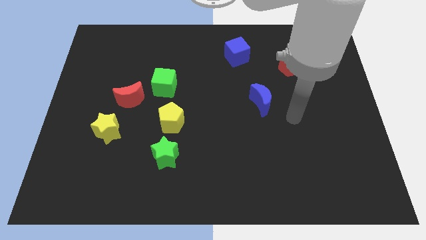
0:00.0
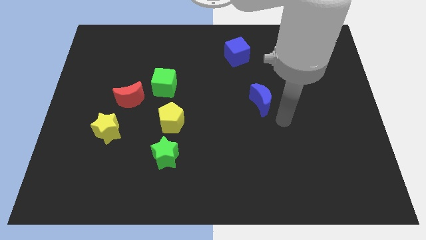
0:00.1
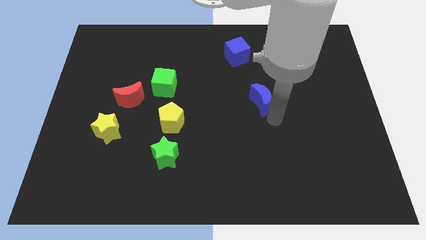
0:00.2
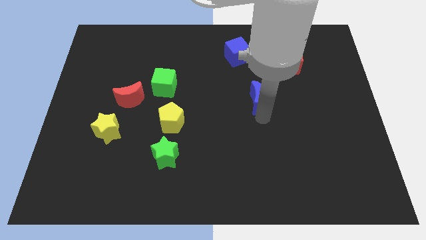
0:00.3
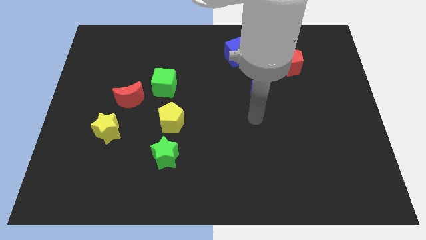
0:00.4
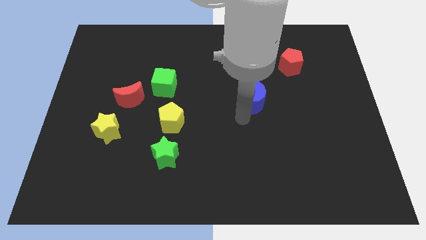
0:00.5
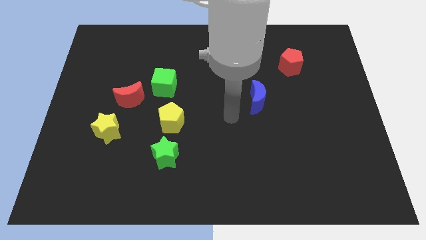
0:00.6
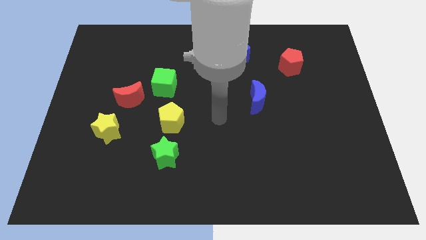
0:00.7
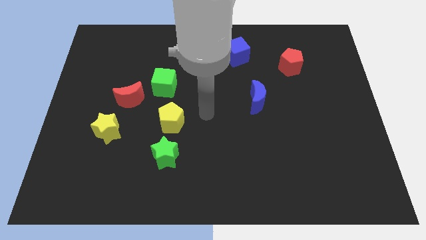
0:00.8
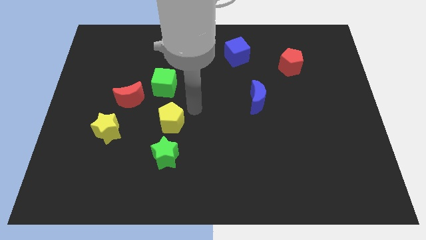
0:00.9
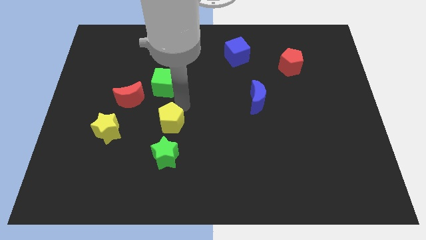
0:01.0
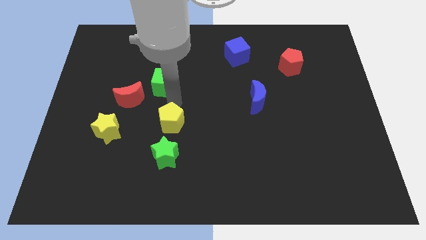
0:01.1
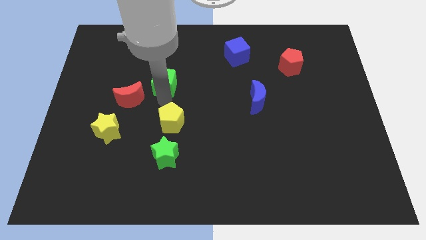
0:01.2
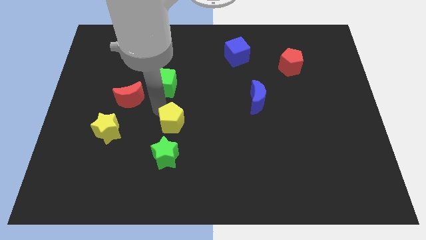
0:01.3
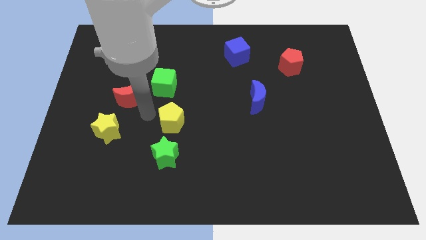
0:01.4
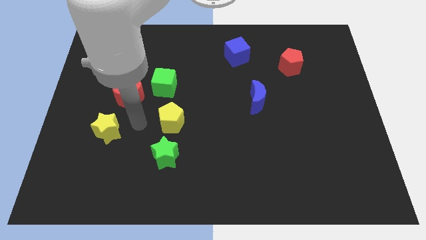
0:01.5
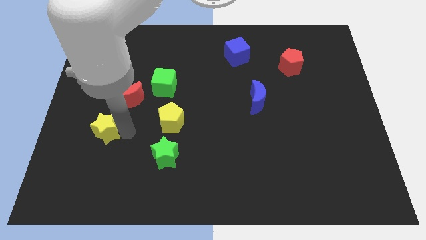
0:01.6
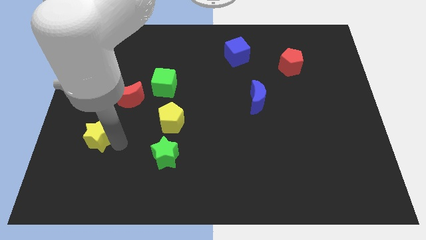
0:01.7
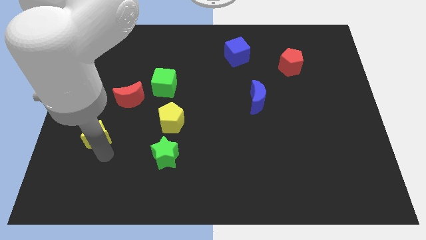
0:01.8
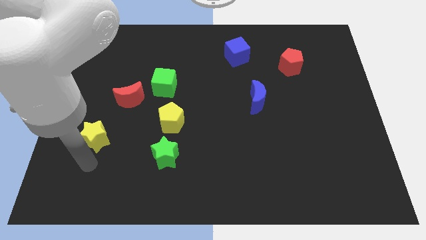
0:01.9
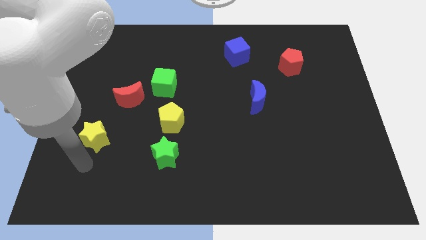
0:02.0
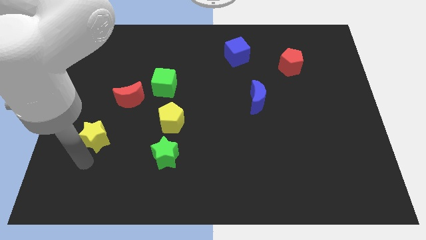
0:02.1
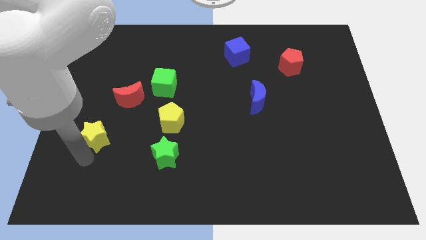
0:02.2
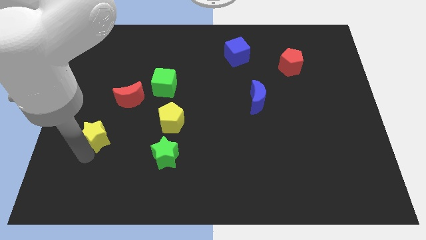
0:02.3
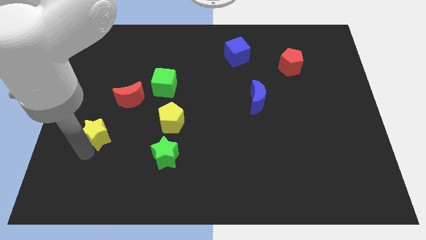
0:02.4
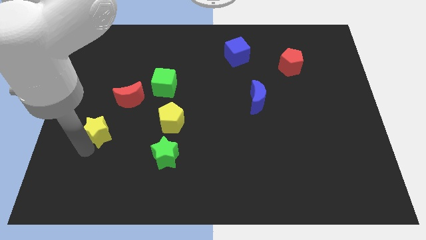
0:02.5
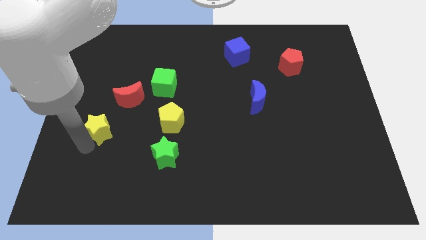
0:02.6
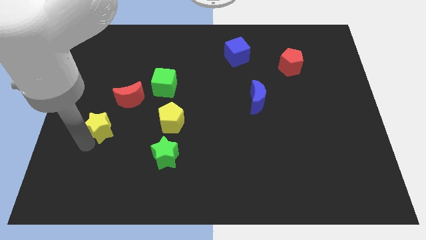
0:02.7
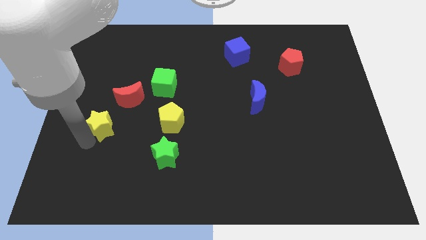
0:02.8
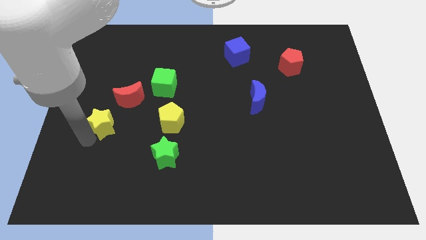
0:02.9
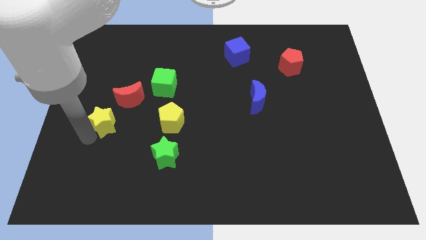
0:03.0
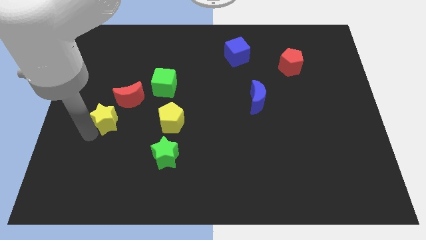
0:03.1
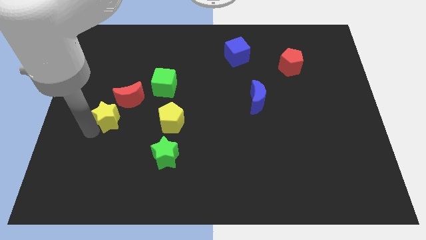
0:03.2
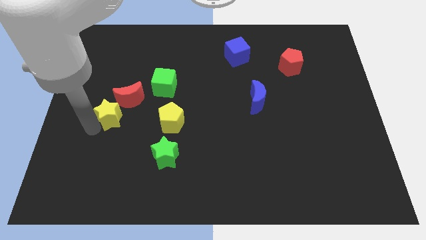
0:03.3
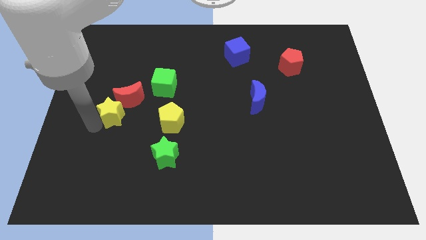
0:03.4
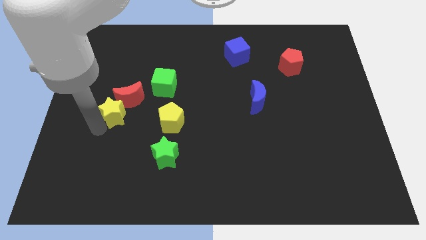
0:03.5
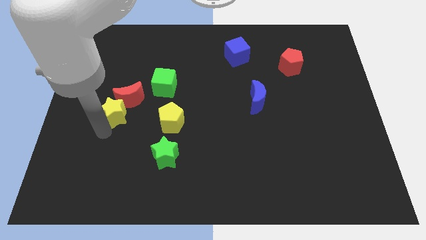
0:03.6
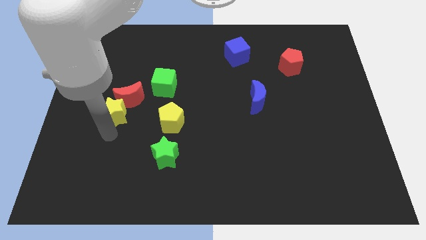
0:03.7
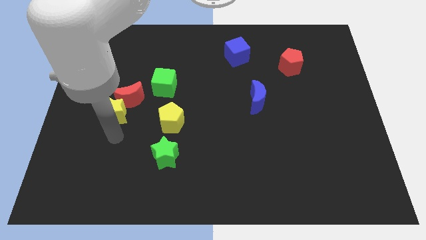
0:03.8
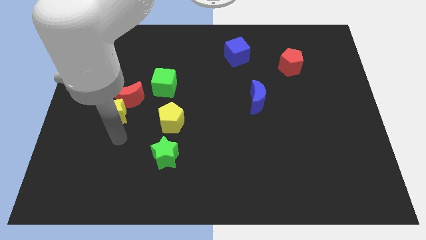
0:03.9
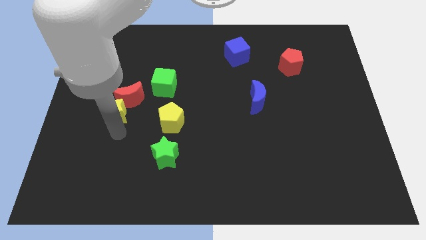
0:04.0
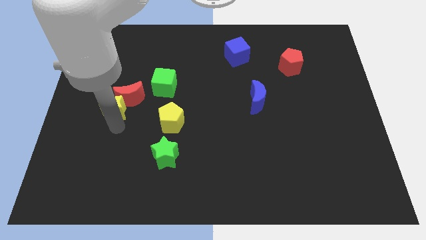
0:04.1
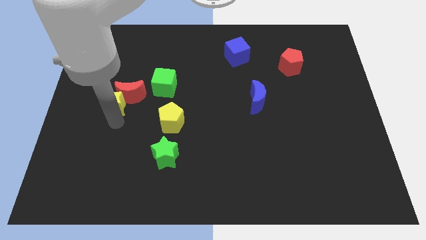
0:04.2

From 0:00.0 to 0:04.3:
push the yellow star a bit upwards

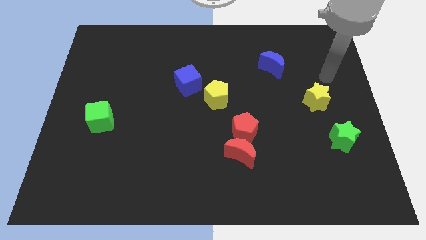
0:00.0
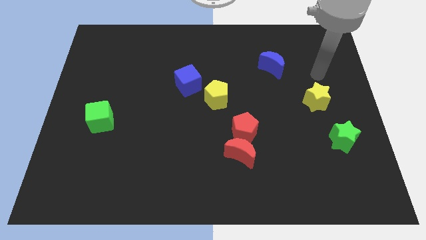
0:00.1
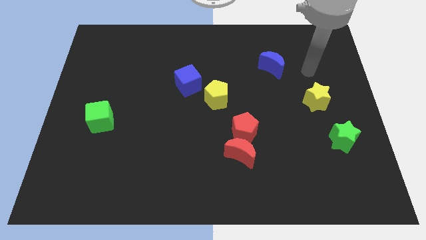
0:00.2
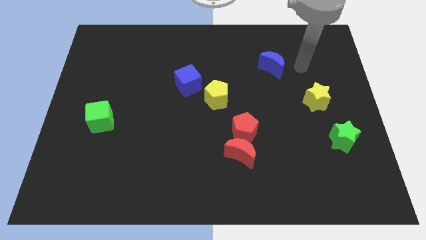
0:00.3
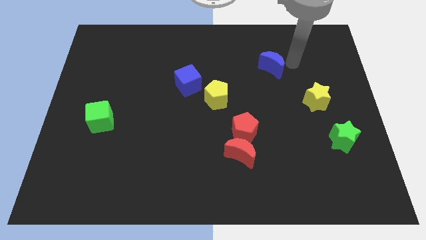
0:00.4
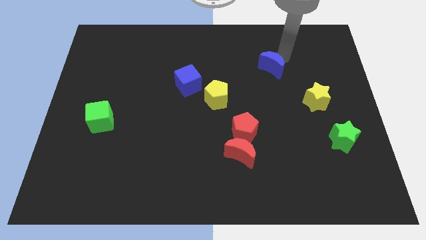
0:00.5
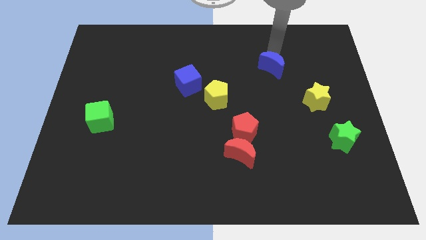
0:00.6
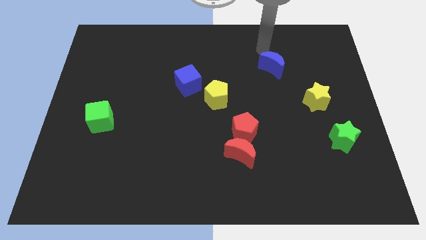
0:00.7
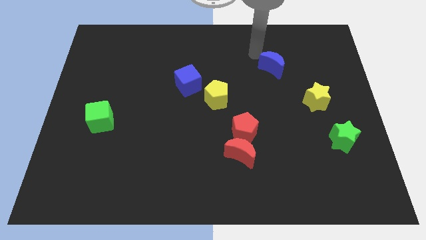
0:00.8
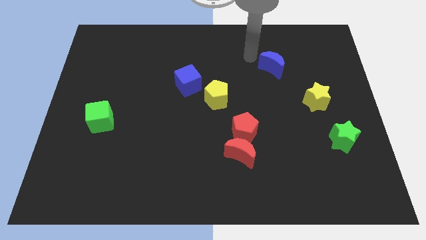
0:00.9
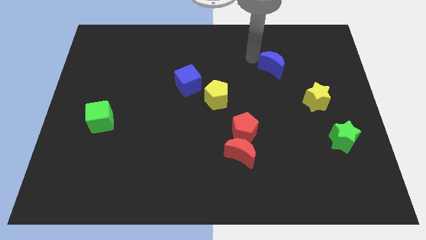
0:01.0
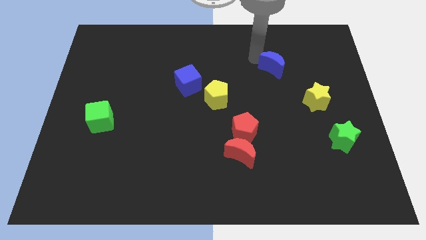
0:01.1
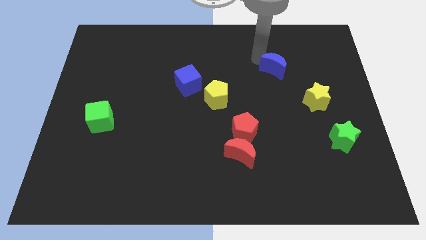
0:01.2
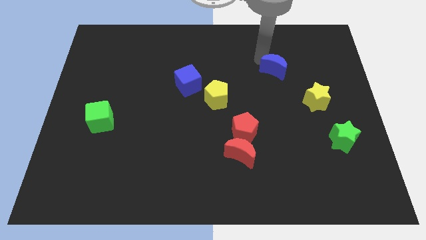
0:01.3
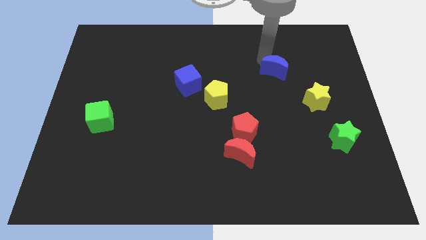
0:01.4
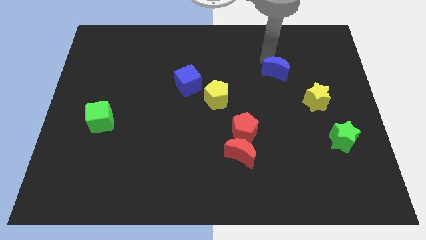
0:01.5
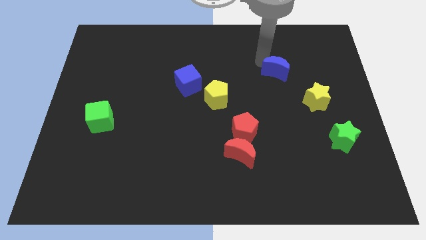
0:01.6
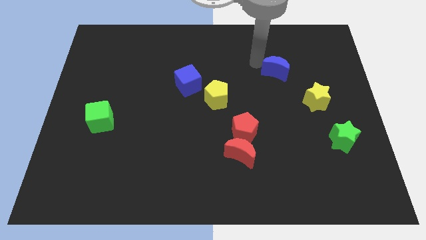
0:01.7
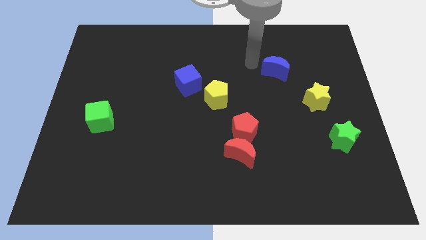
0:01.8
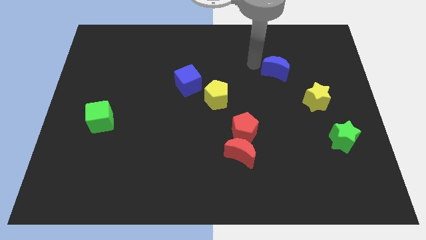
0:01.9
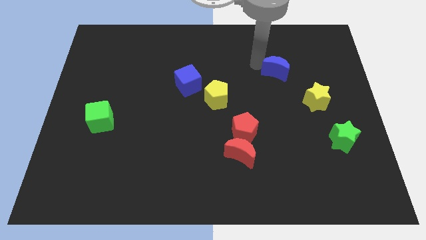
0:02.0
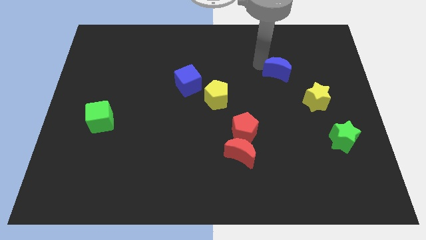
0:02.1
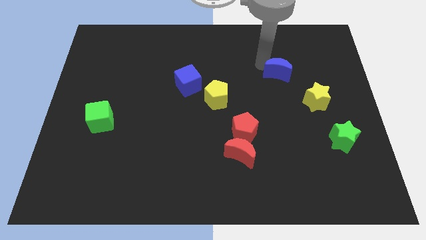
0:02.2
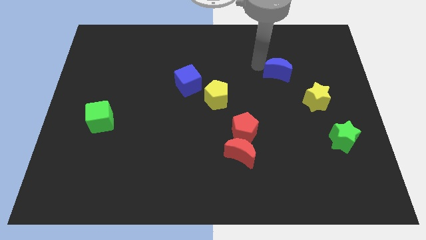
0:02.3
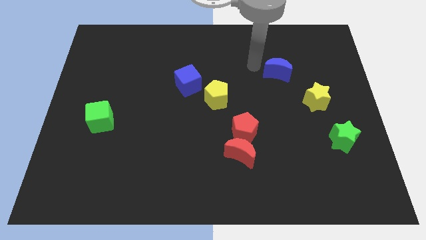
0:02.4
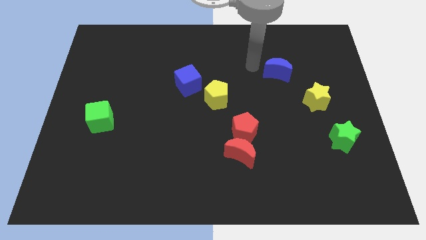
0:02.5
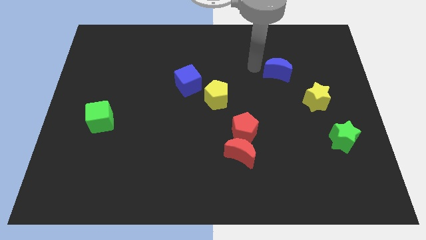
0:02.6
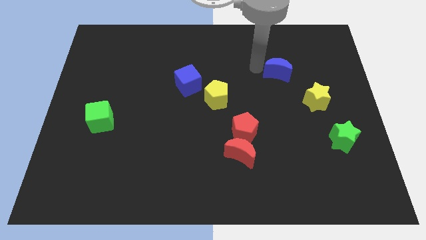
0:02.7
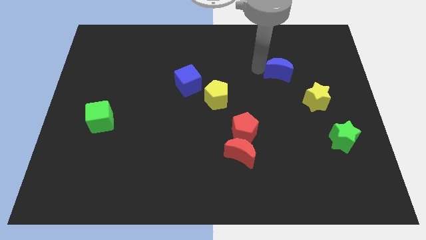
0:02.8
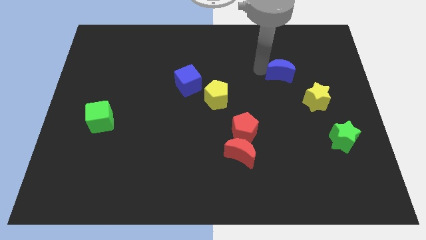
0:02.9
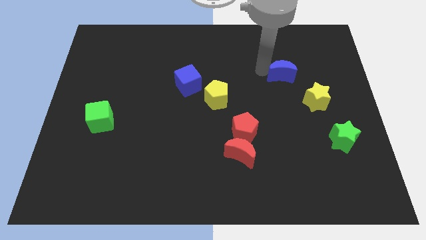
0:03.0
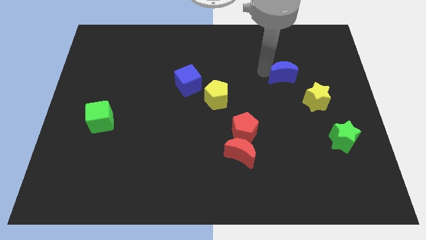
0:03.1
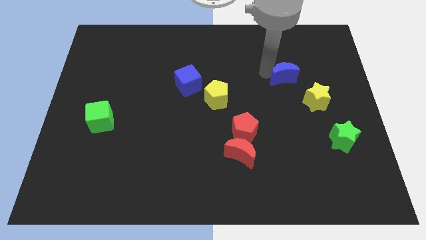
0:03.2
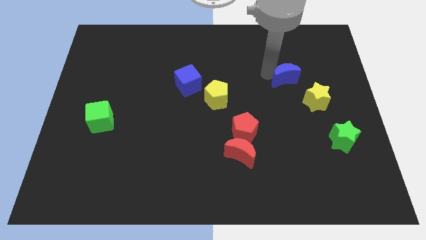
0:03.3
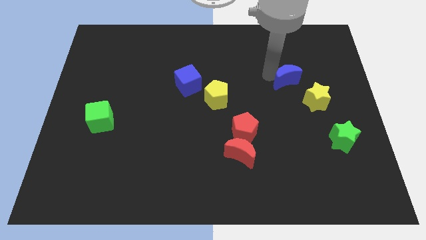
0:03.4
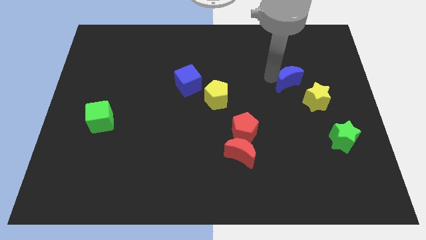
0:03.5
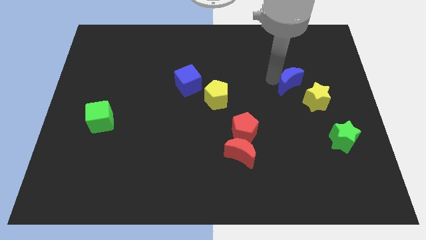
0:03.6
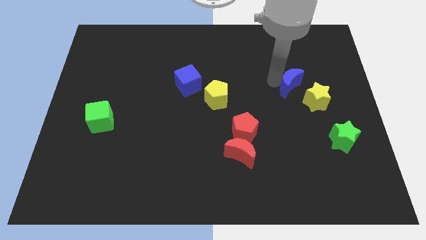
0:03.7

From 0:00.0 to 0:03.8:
slightly slide the blue moon down and then to the right

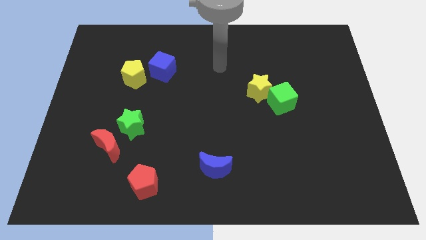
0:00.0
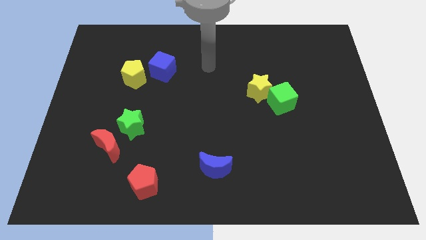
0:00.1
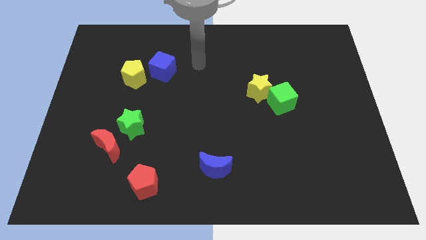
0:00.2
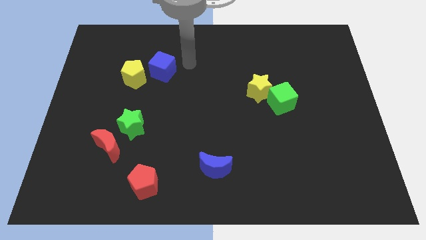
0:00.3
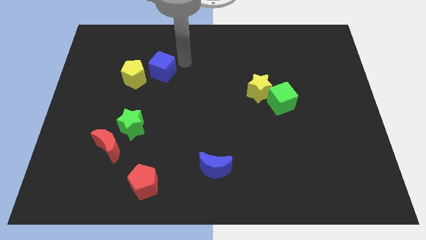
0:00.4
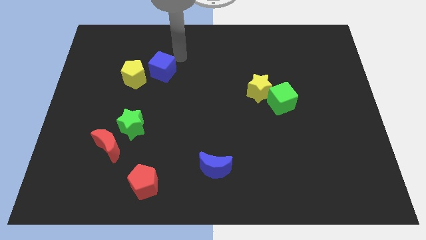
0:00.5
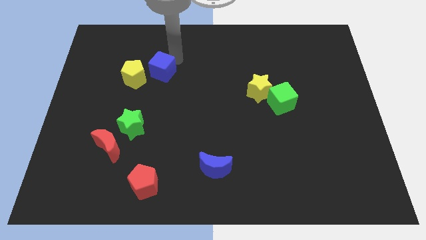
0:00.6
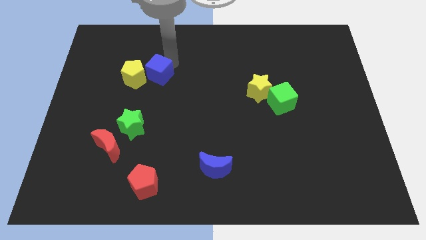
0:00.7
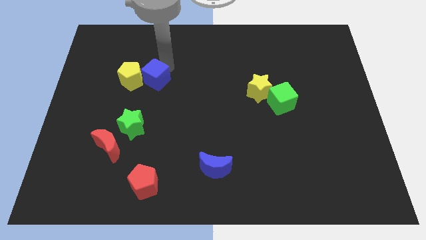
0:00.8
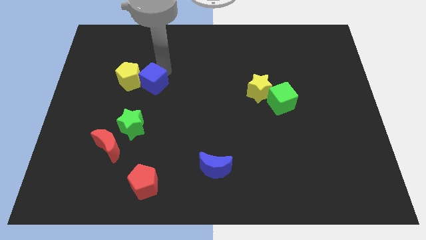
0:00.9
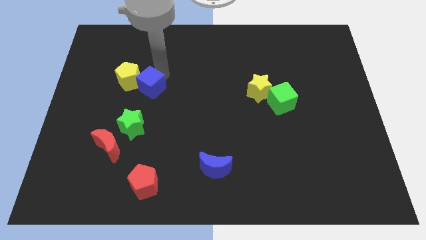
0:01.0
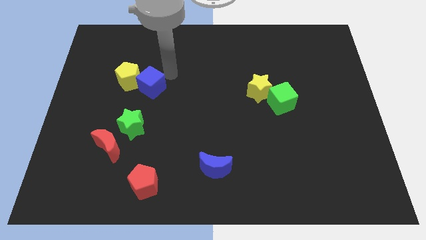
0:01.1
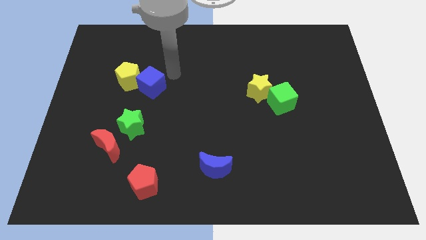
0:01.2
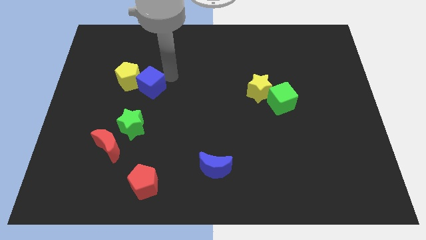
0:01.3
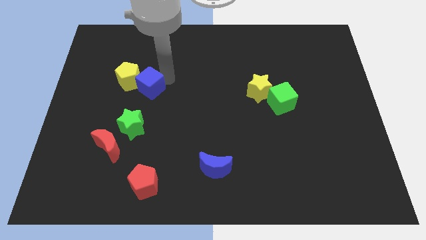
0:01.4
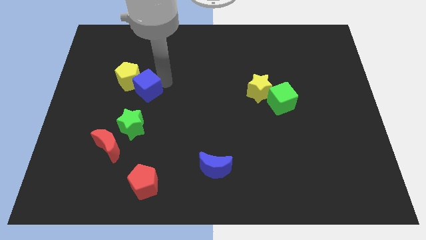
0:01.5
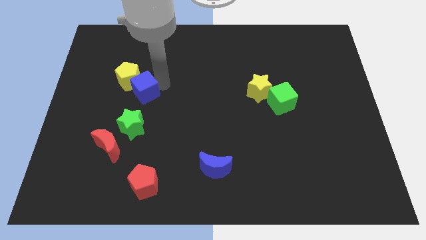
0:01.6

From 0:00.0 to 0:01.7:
push the blue cube a little downwards and left
